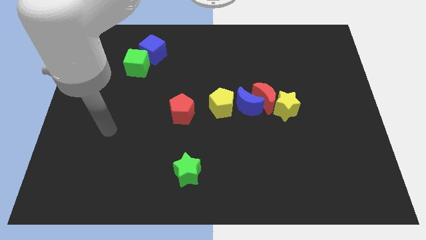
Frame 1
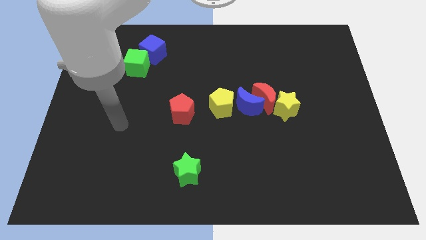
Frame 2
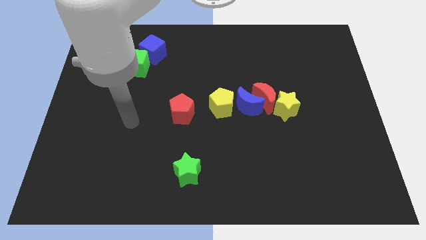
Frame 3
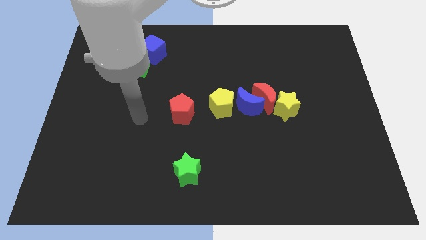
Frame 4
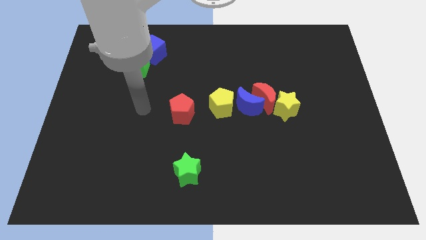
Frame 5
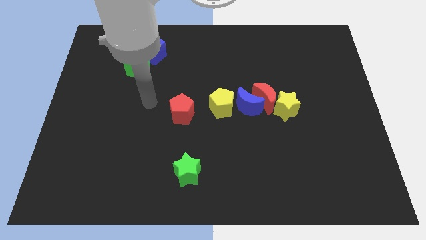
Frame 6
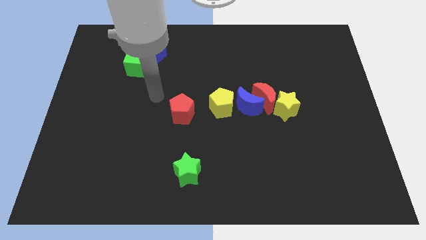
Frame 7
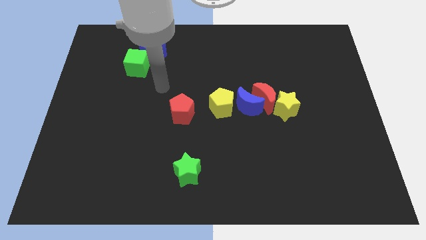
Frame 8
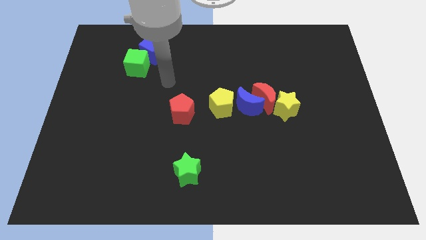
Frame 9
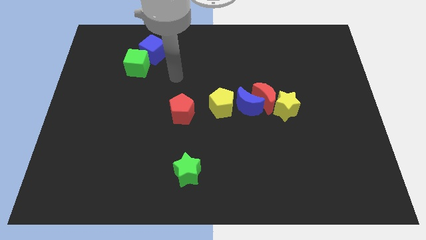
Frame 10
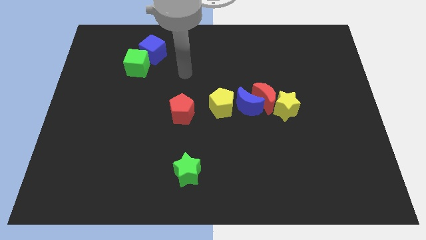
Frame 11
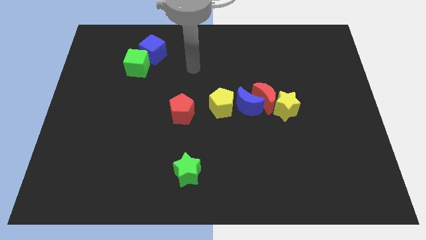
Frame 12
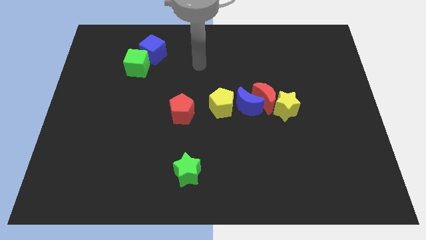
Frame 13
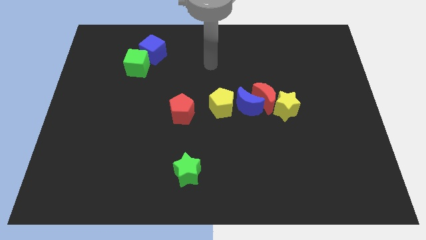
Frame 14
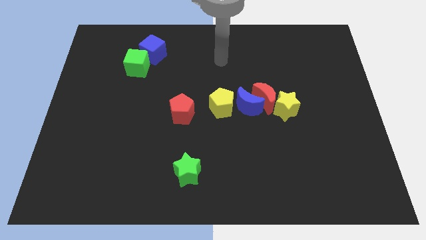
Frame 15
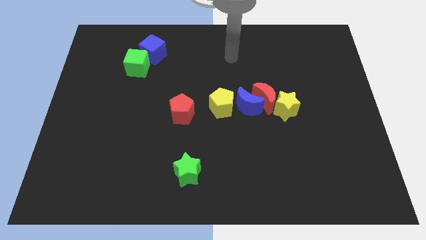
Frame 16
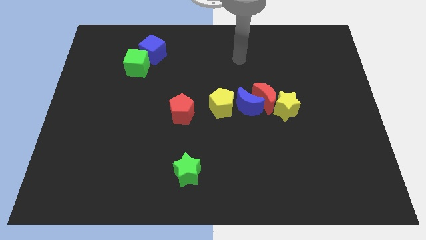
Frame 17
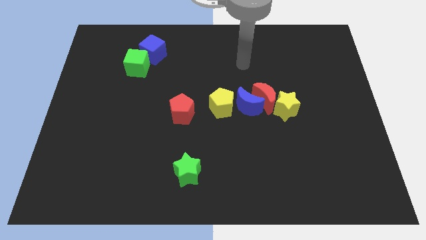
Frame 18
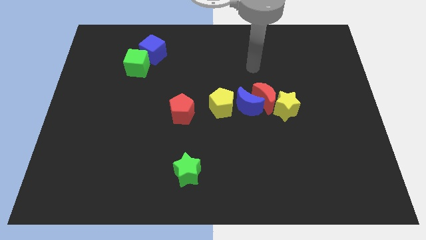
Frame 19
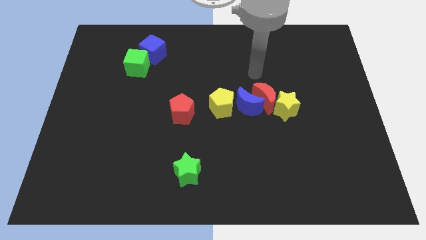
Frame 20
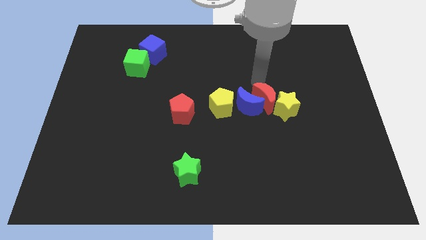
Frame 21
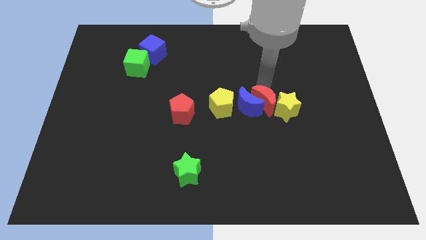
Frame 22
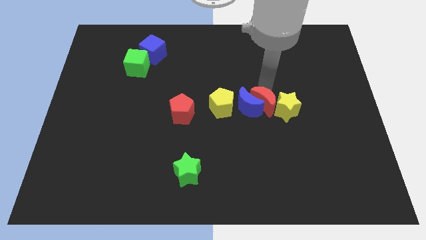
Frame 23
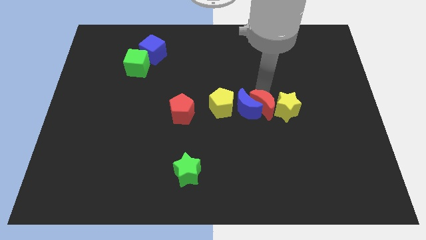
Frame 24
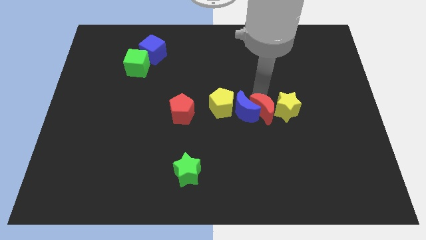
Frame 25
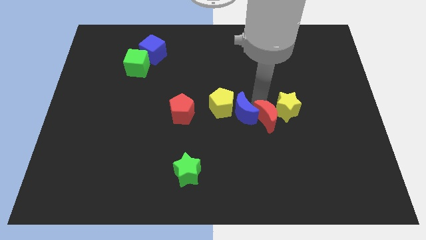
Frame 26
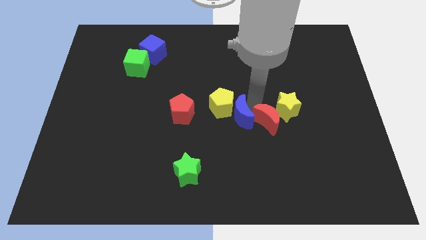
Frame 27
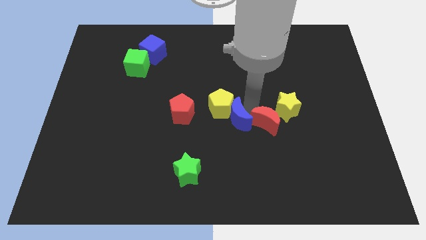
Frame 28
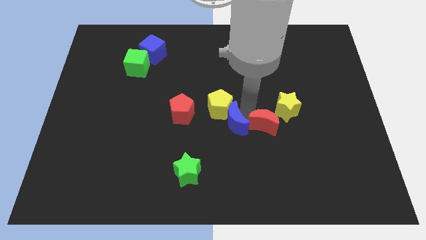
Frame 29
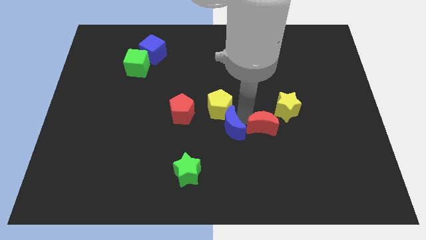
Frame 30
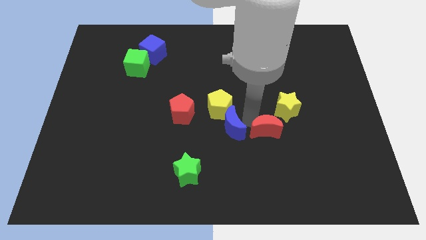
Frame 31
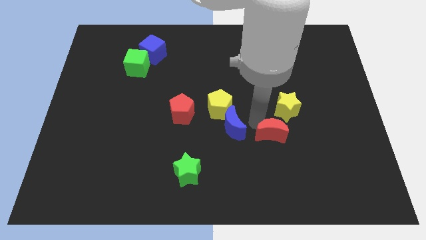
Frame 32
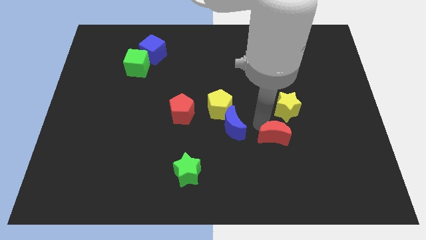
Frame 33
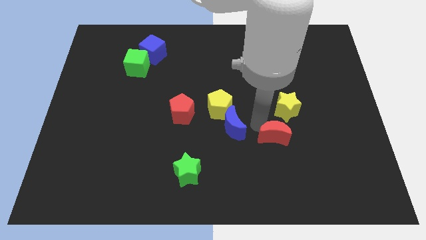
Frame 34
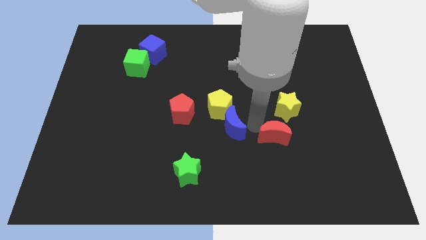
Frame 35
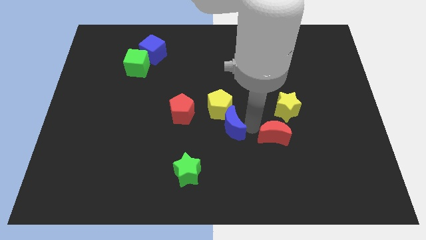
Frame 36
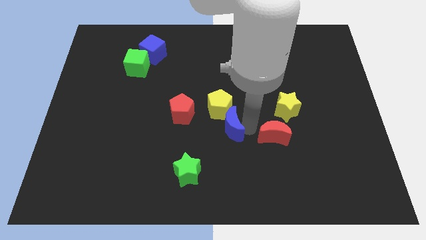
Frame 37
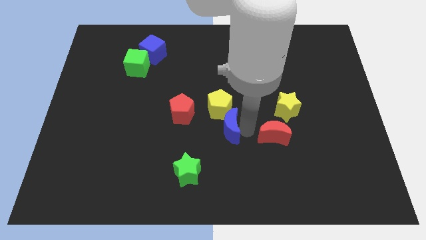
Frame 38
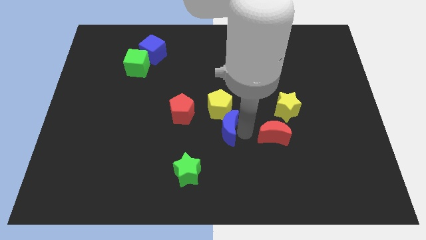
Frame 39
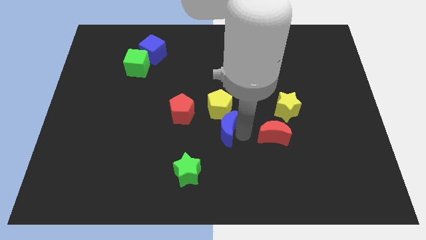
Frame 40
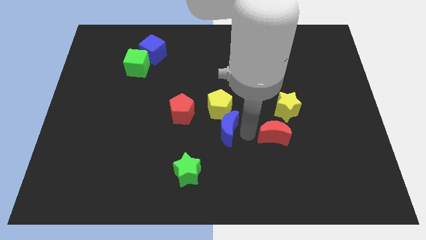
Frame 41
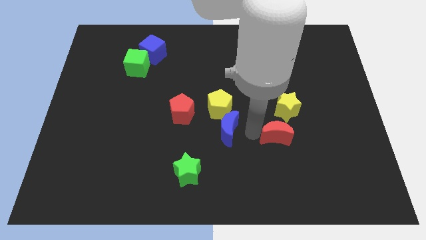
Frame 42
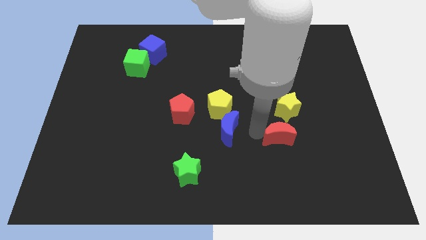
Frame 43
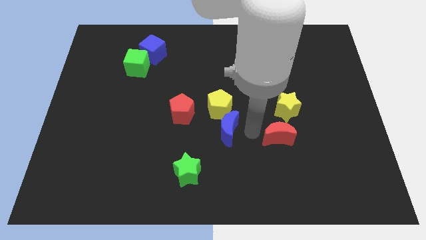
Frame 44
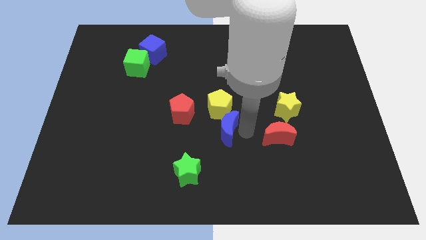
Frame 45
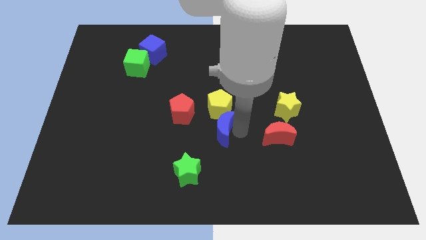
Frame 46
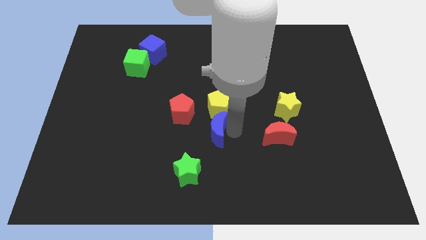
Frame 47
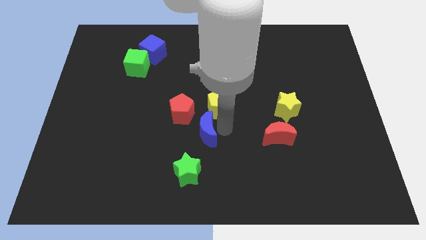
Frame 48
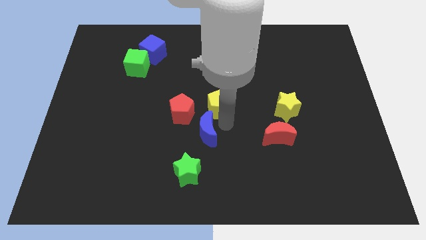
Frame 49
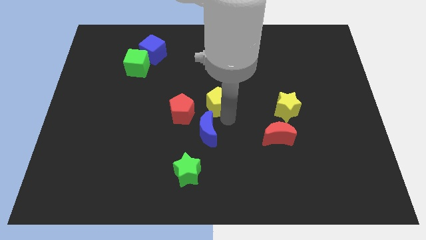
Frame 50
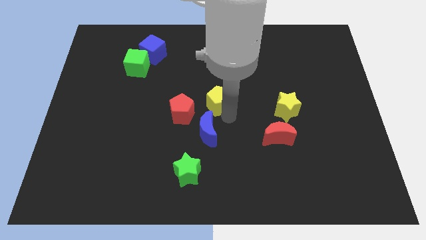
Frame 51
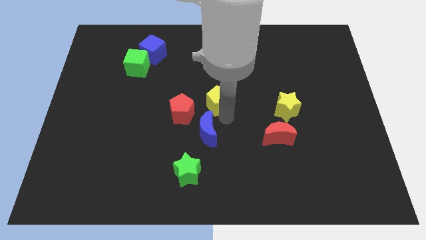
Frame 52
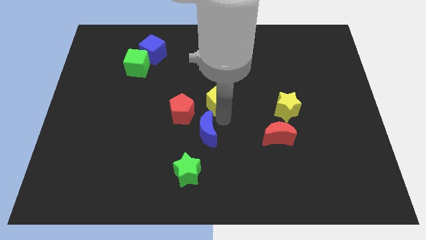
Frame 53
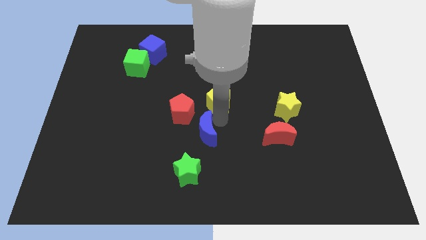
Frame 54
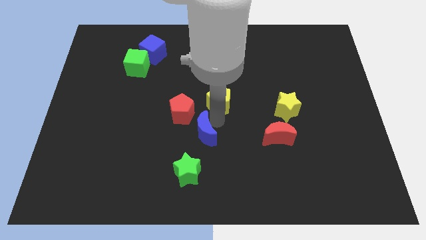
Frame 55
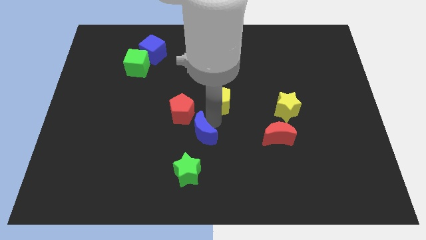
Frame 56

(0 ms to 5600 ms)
slide the blue moon to the bottom side of the red pentagon

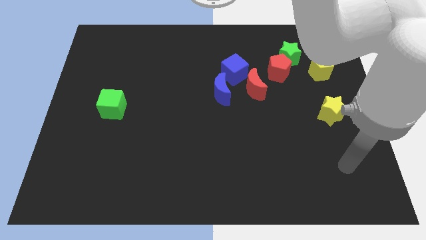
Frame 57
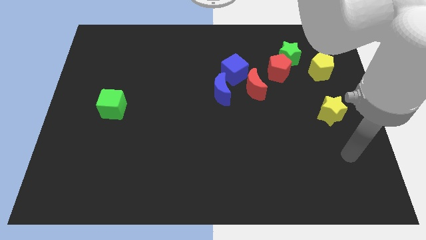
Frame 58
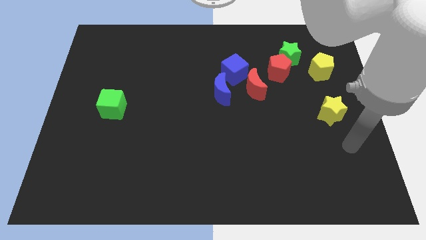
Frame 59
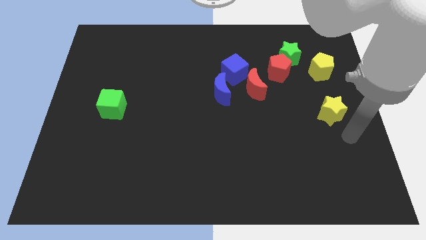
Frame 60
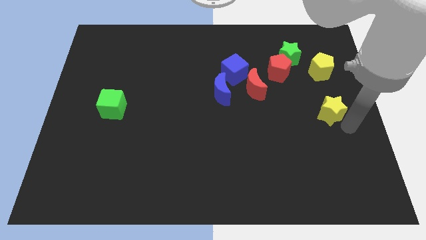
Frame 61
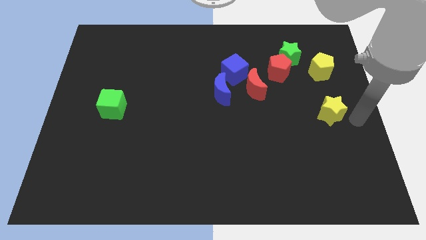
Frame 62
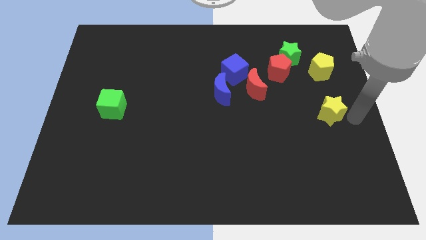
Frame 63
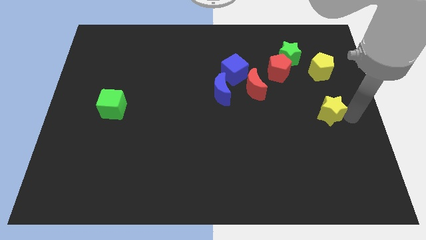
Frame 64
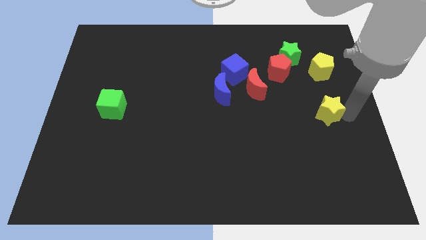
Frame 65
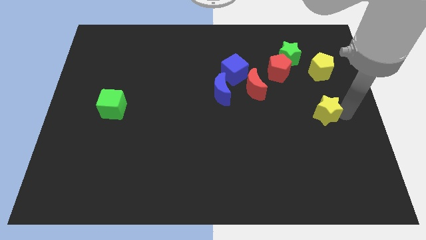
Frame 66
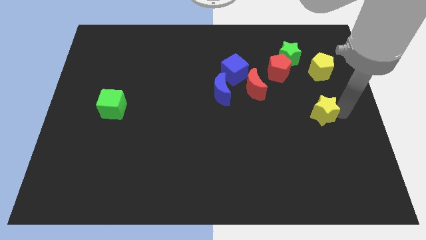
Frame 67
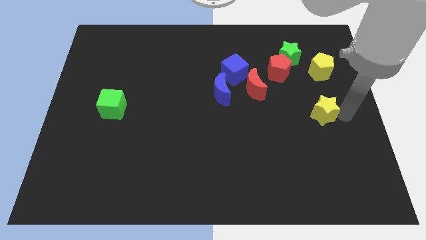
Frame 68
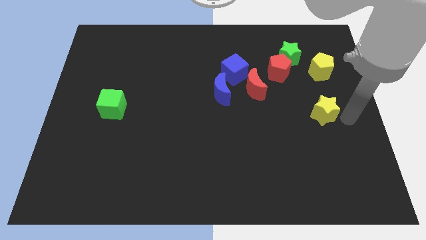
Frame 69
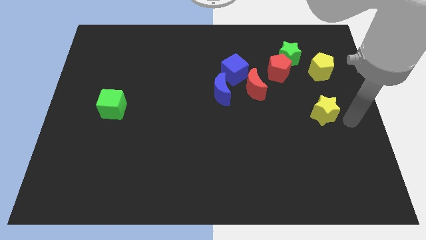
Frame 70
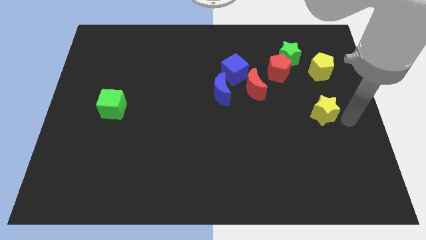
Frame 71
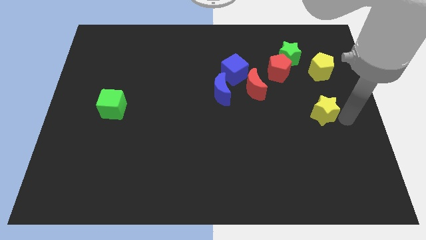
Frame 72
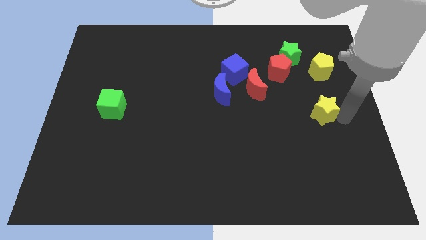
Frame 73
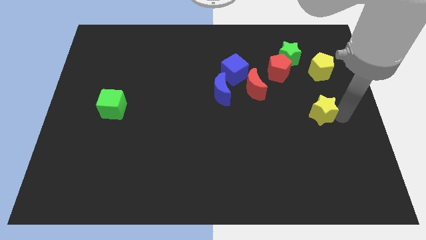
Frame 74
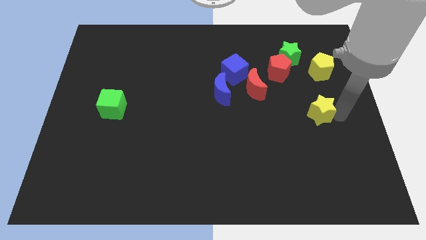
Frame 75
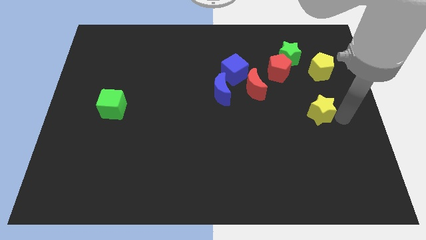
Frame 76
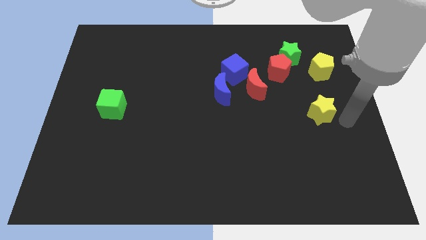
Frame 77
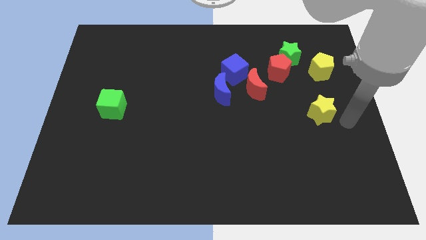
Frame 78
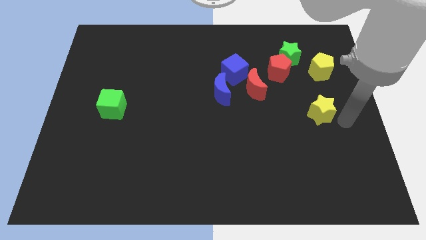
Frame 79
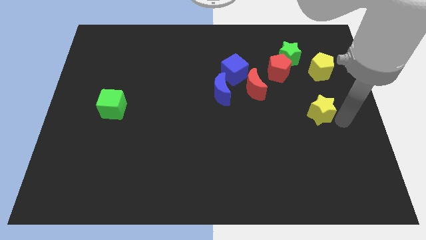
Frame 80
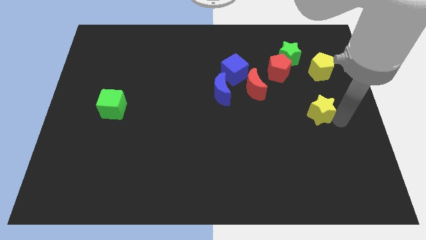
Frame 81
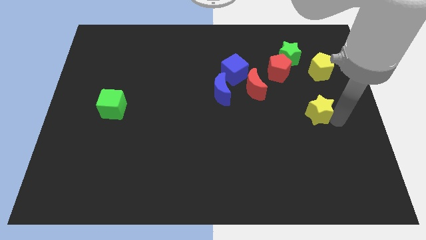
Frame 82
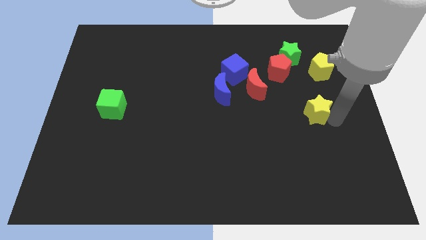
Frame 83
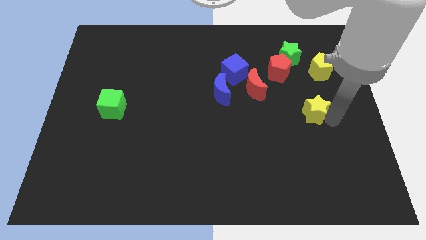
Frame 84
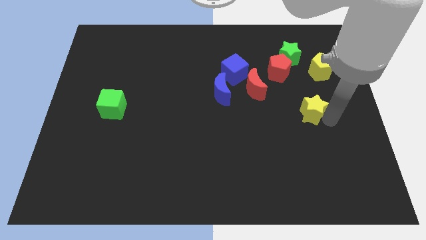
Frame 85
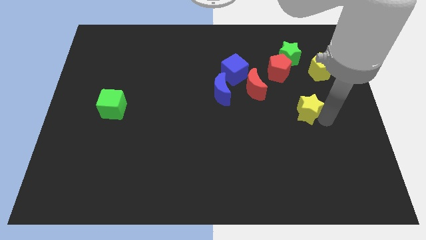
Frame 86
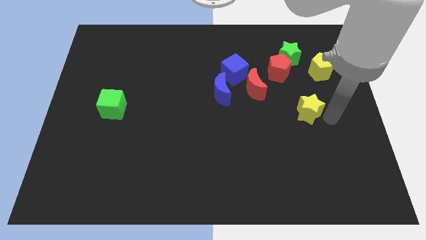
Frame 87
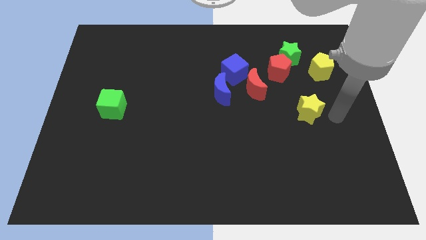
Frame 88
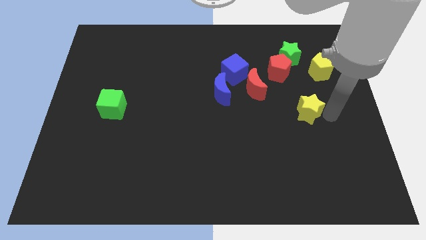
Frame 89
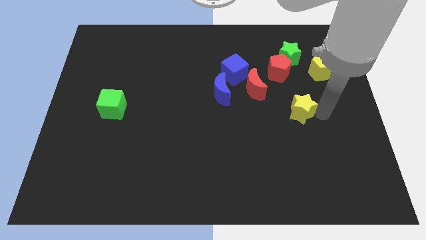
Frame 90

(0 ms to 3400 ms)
move the yellow star to the bottom right of the red moon
